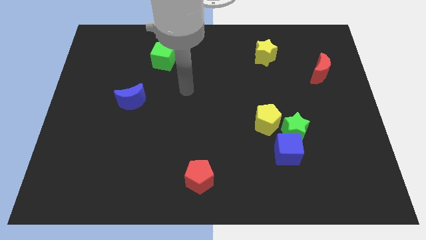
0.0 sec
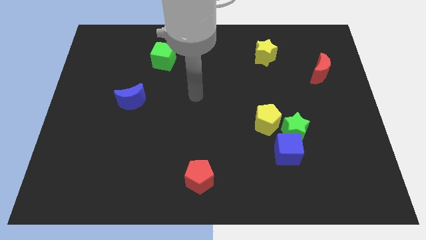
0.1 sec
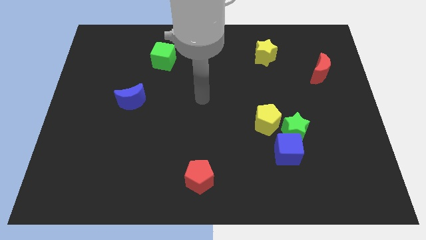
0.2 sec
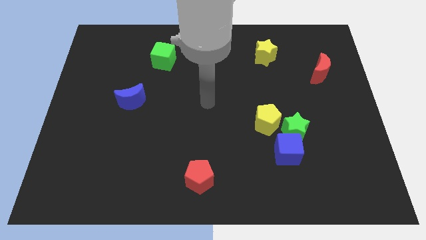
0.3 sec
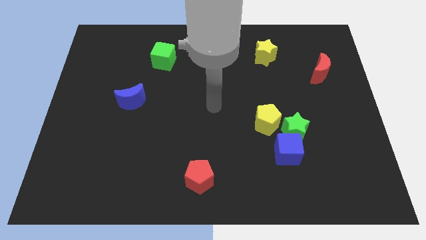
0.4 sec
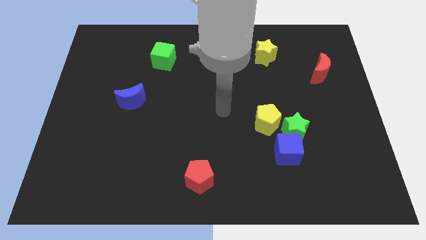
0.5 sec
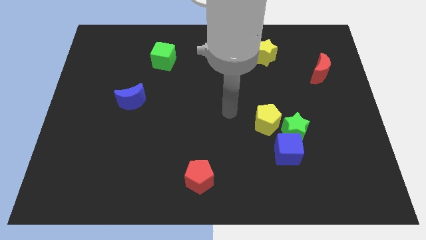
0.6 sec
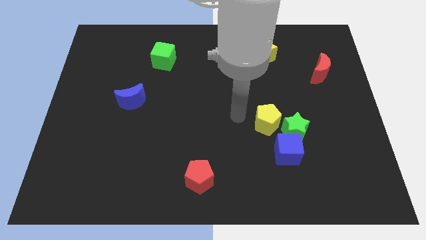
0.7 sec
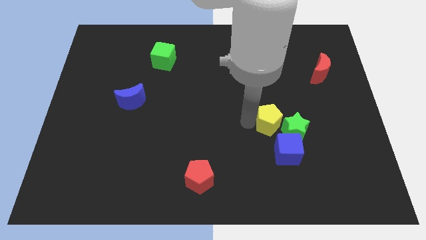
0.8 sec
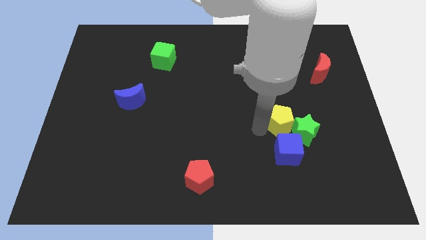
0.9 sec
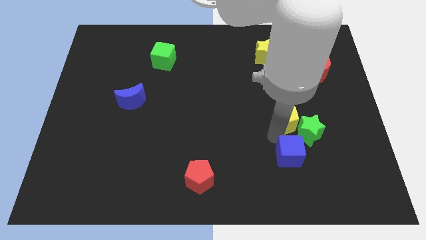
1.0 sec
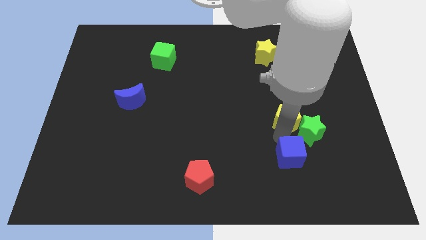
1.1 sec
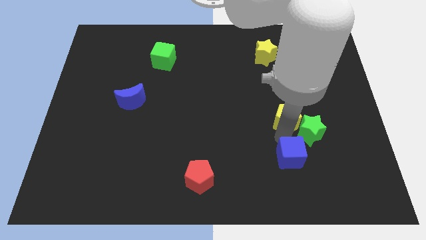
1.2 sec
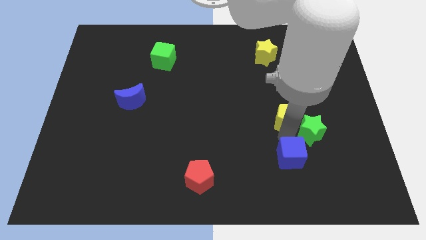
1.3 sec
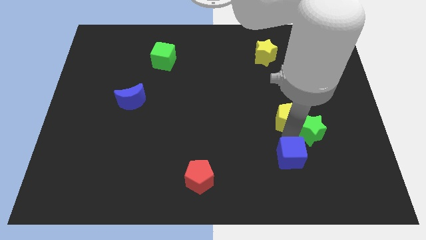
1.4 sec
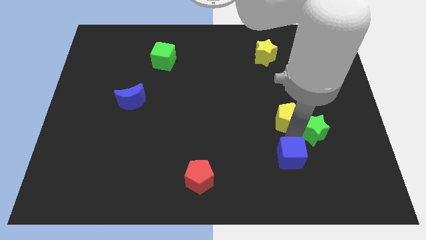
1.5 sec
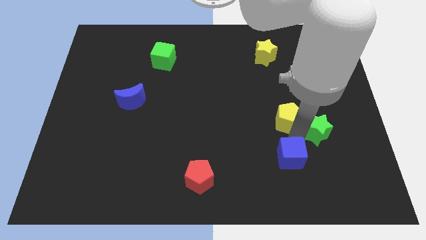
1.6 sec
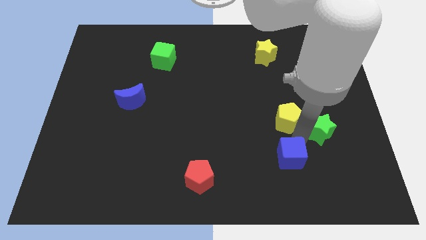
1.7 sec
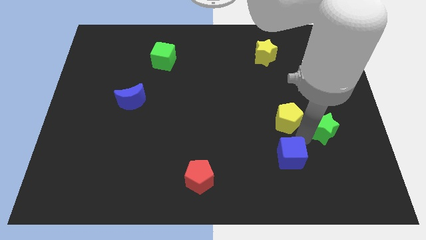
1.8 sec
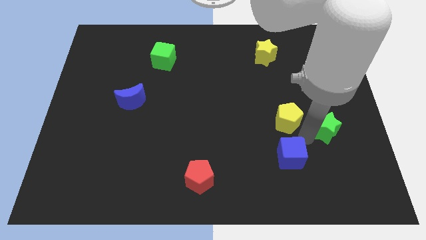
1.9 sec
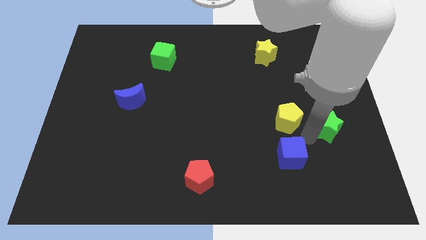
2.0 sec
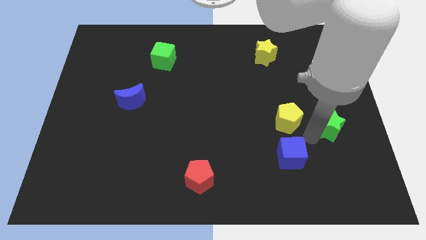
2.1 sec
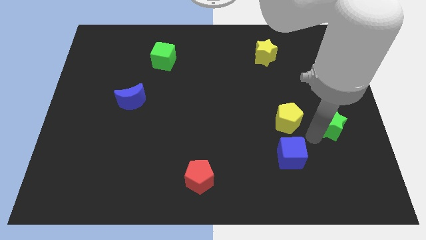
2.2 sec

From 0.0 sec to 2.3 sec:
pull the green star apart from the blue cube and yellow pentagon

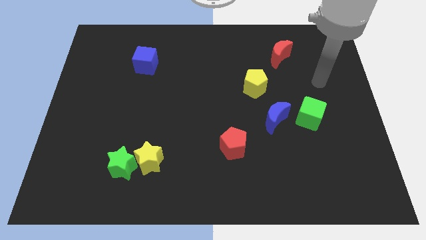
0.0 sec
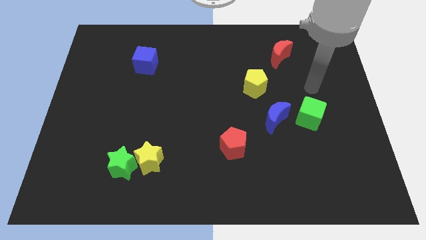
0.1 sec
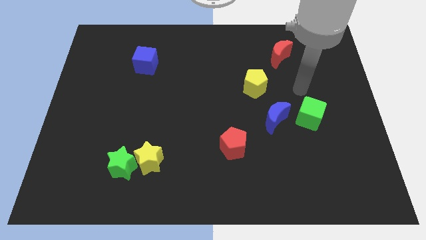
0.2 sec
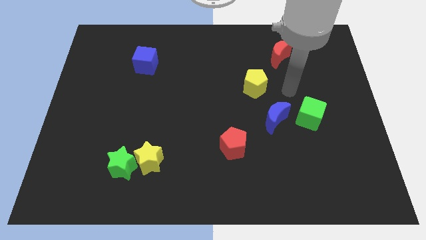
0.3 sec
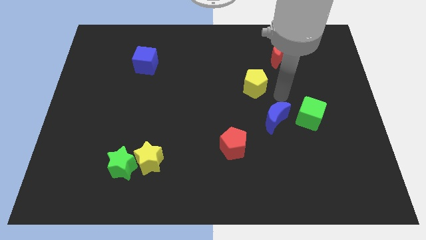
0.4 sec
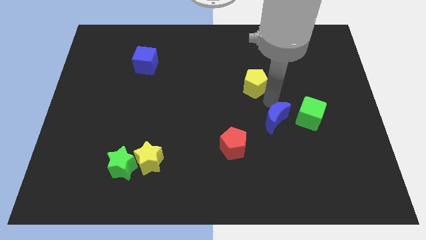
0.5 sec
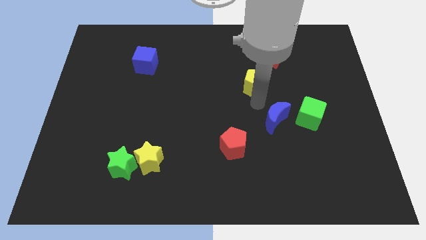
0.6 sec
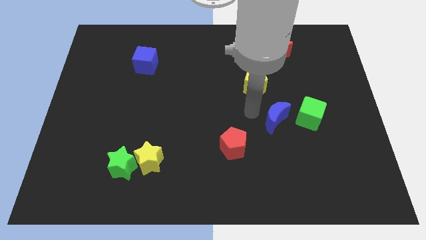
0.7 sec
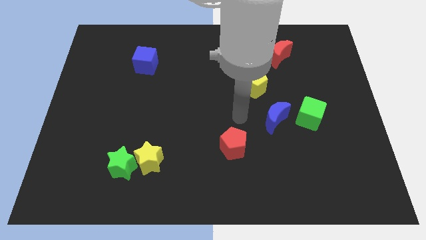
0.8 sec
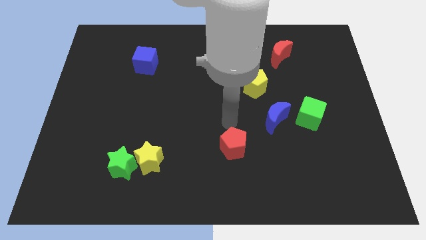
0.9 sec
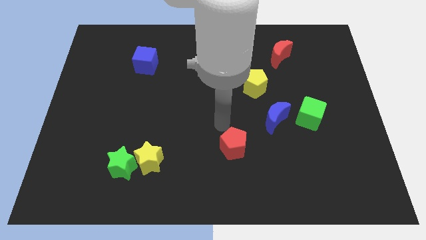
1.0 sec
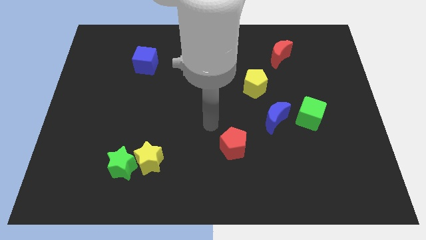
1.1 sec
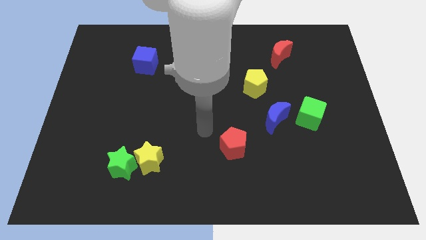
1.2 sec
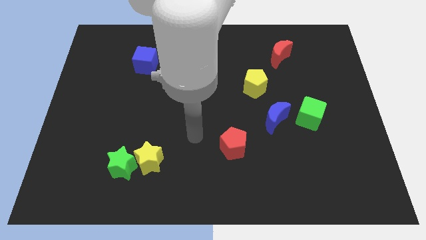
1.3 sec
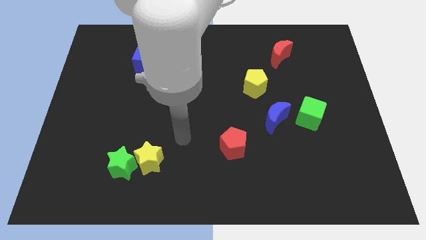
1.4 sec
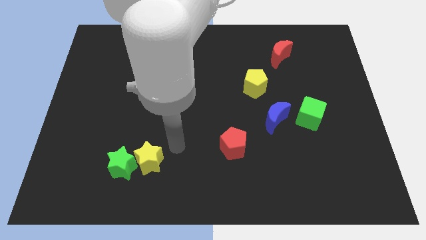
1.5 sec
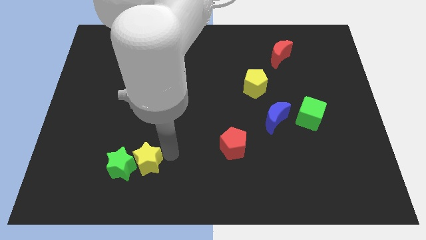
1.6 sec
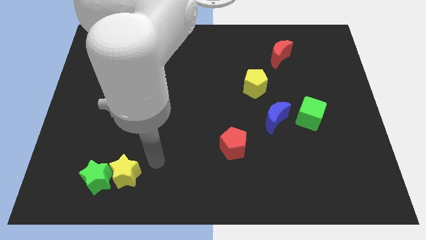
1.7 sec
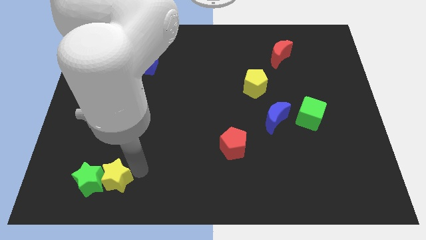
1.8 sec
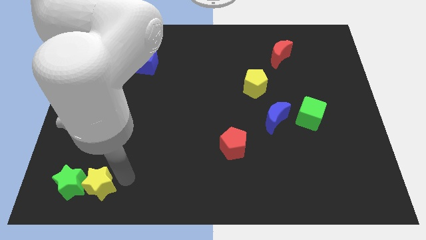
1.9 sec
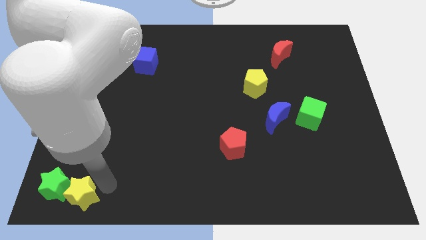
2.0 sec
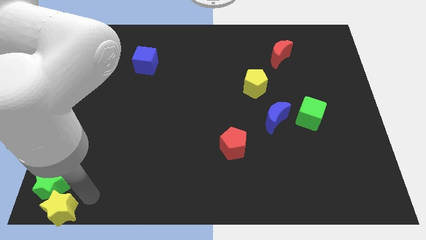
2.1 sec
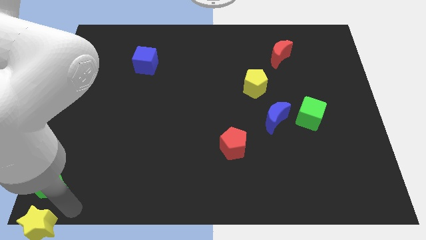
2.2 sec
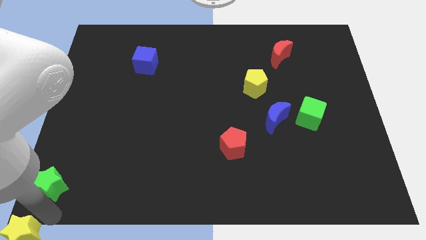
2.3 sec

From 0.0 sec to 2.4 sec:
separate the green star from the yellow star

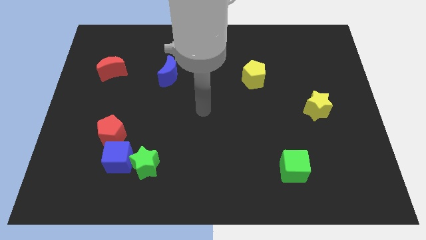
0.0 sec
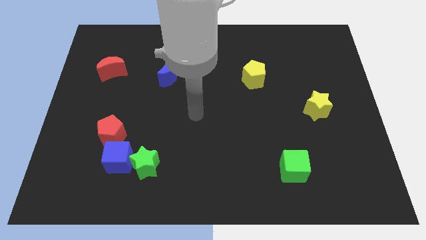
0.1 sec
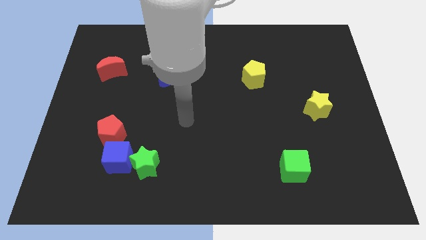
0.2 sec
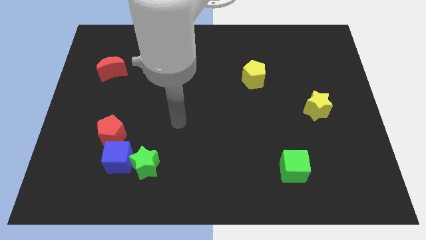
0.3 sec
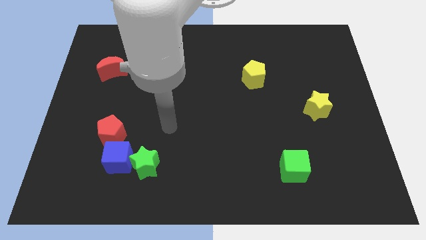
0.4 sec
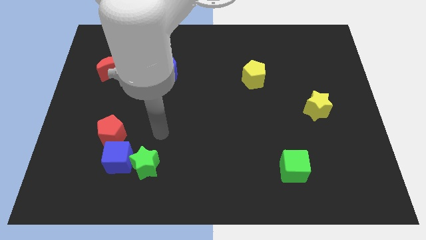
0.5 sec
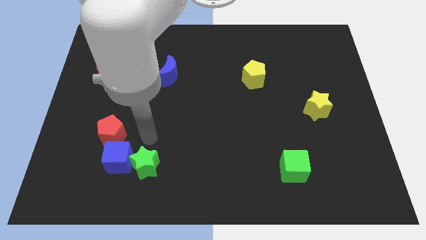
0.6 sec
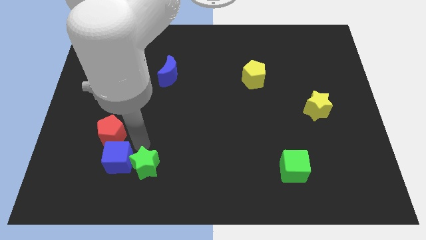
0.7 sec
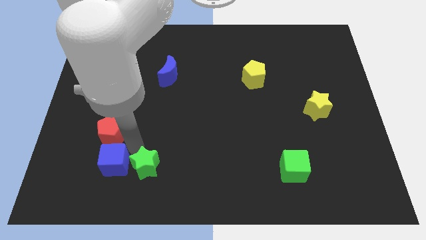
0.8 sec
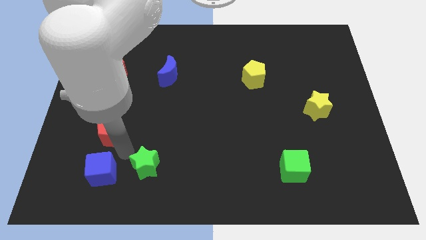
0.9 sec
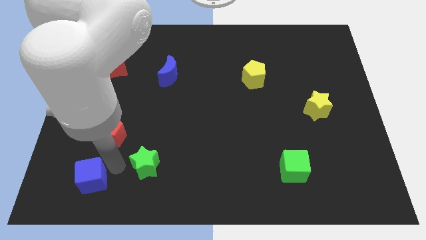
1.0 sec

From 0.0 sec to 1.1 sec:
separate the green star from the blue cube

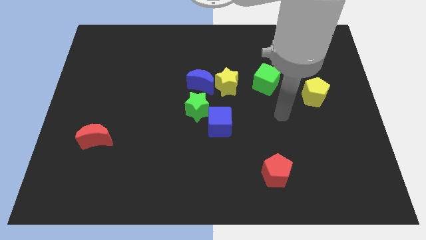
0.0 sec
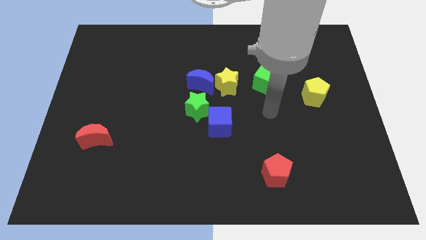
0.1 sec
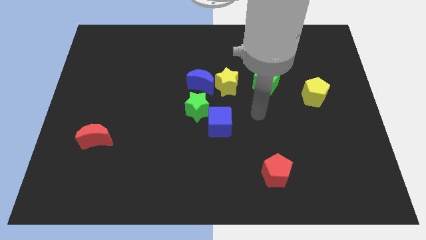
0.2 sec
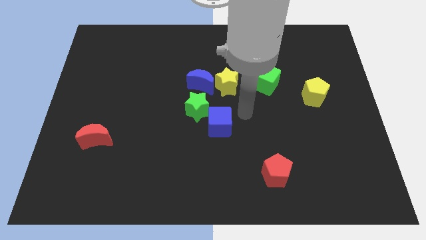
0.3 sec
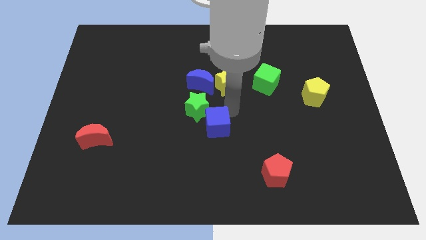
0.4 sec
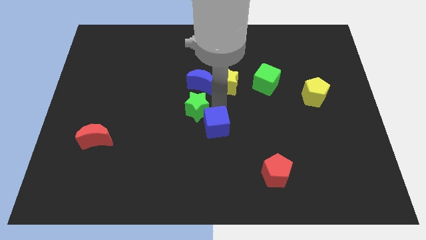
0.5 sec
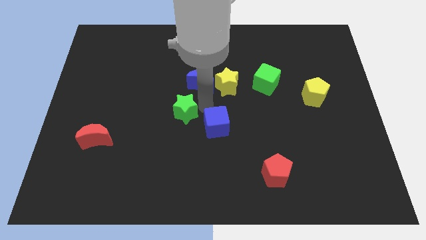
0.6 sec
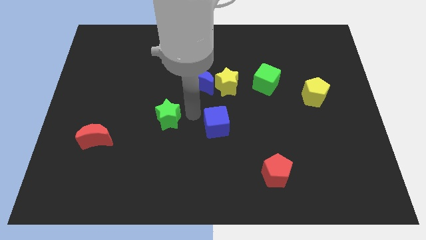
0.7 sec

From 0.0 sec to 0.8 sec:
separate the blue cube from the green star

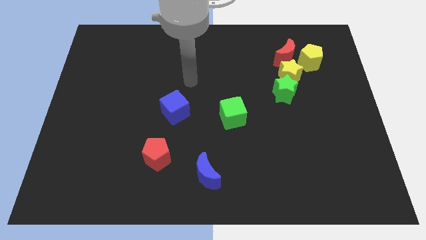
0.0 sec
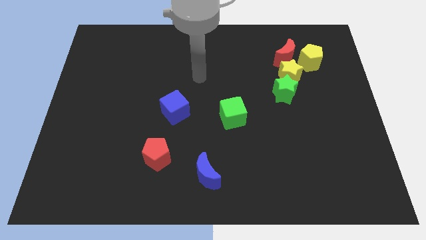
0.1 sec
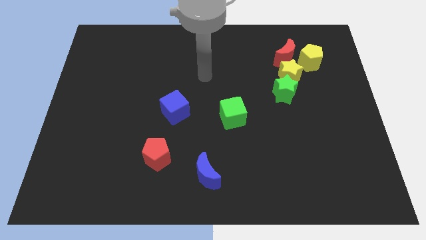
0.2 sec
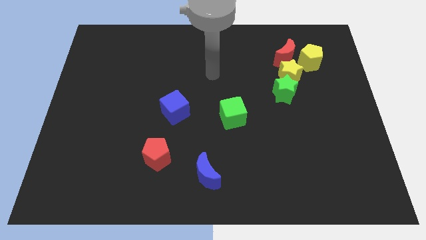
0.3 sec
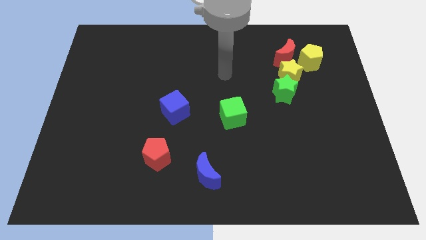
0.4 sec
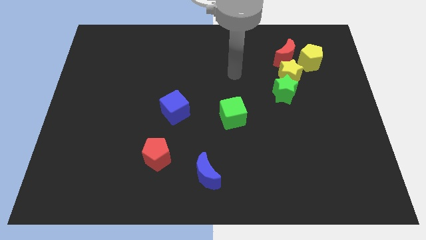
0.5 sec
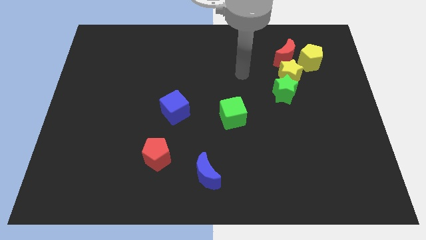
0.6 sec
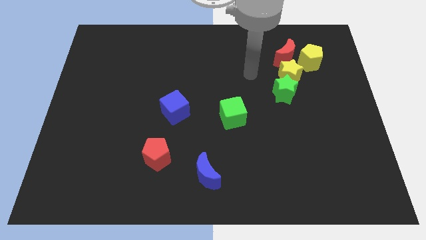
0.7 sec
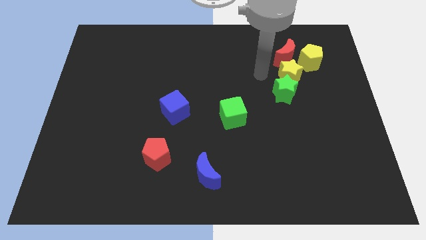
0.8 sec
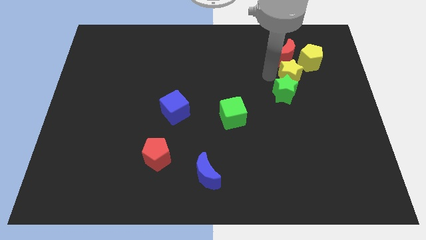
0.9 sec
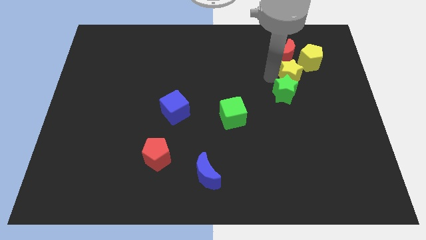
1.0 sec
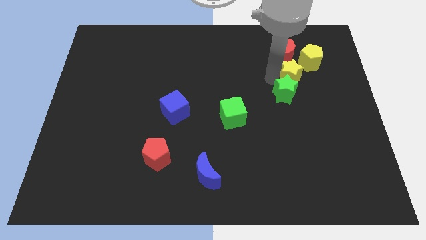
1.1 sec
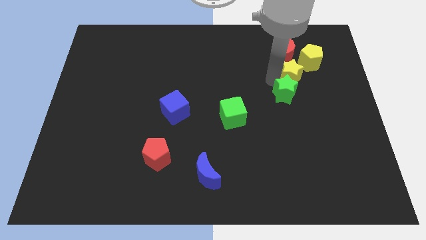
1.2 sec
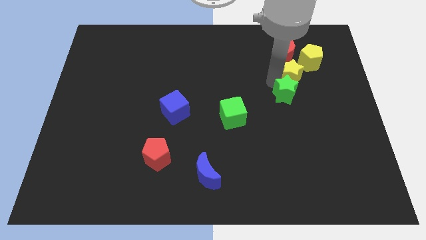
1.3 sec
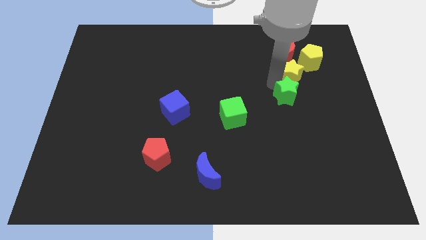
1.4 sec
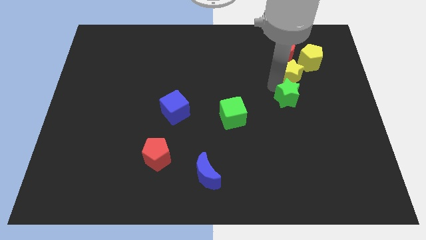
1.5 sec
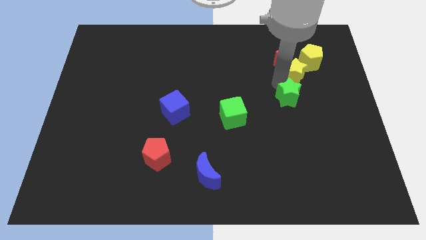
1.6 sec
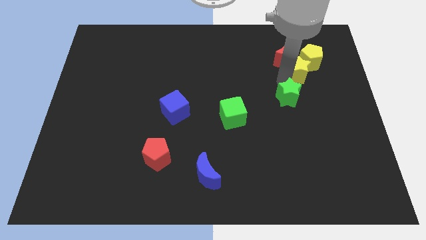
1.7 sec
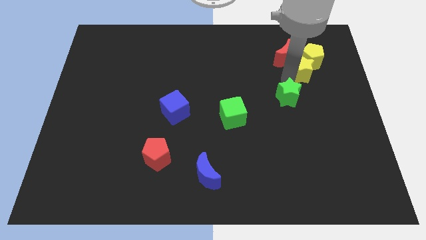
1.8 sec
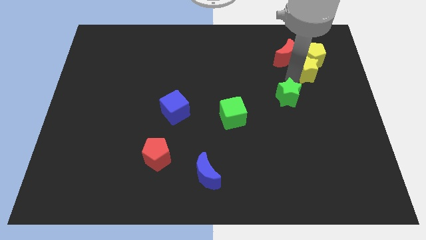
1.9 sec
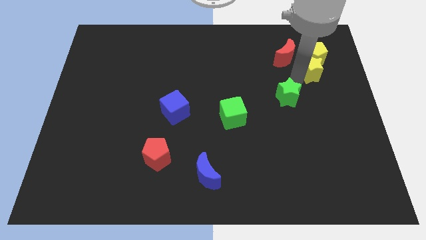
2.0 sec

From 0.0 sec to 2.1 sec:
pull the green star apart from the yellow star

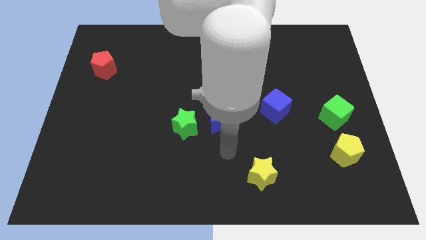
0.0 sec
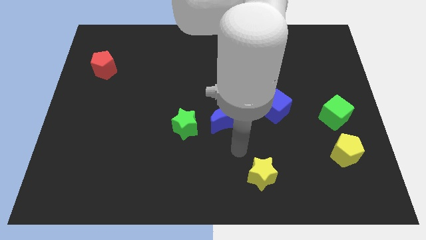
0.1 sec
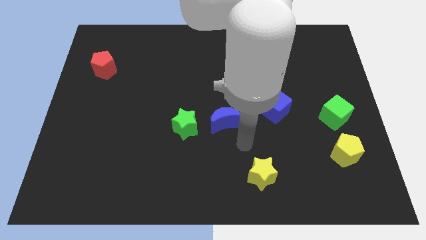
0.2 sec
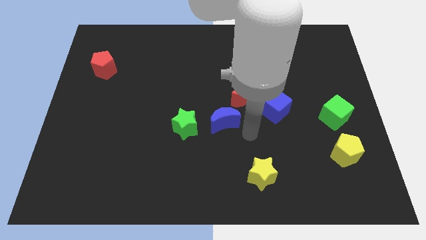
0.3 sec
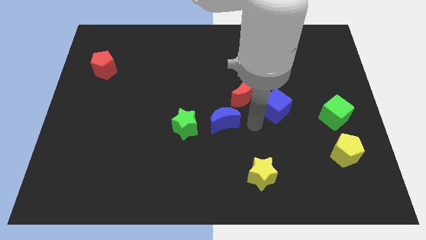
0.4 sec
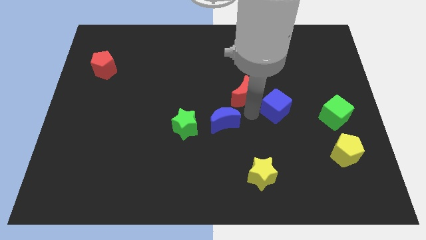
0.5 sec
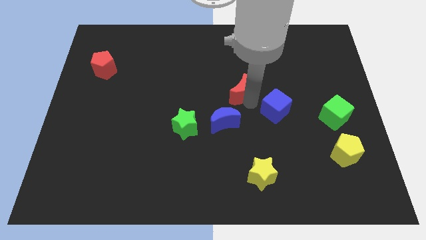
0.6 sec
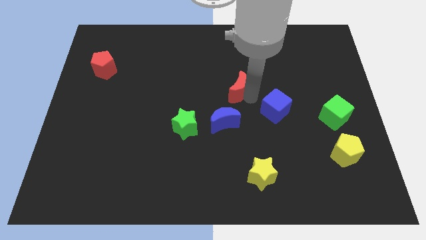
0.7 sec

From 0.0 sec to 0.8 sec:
move the blue cube away from the red moon
